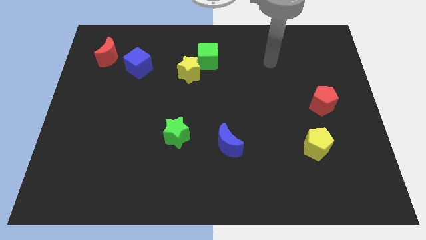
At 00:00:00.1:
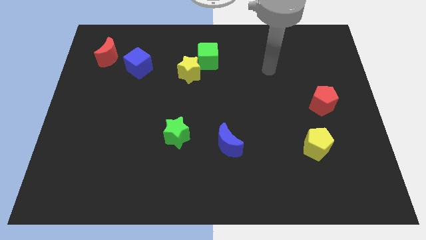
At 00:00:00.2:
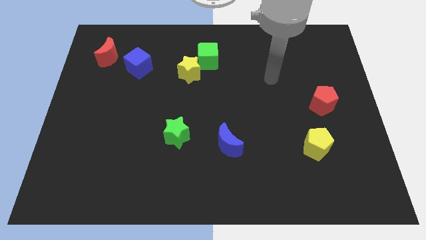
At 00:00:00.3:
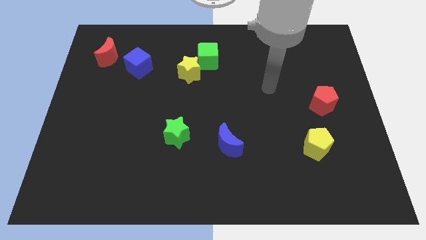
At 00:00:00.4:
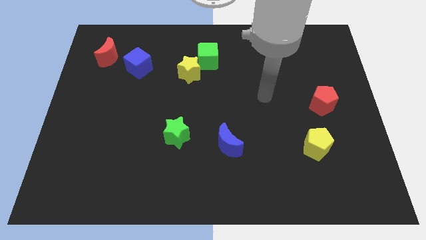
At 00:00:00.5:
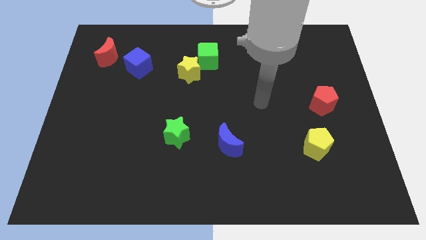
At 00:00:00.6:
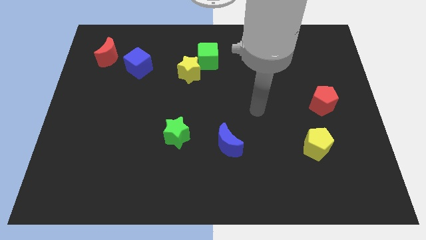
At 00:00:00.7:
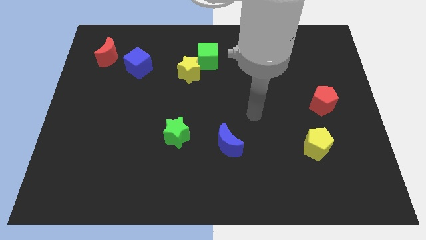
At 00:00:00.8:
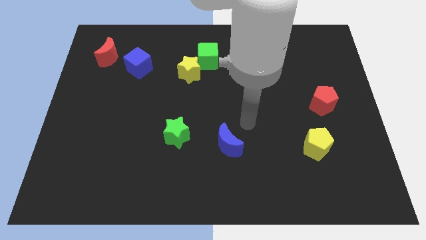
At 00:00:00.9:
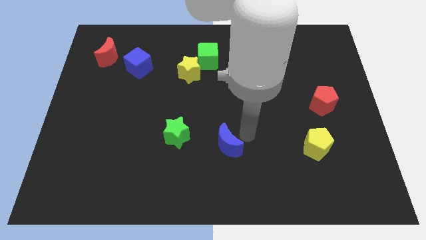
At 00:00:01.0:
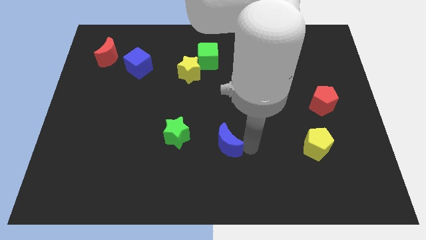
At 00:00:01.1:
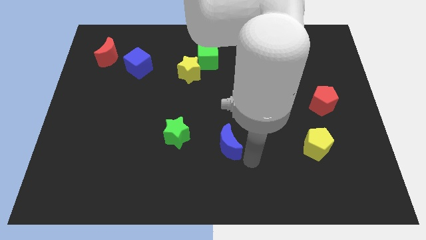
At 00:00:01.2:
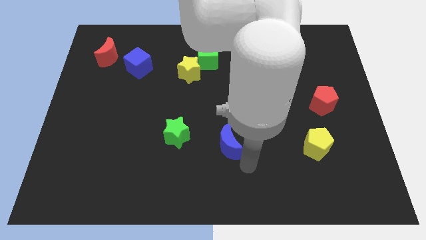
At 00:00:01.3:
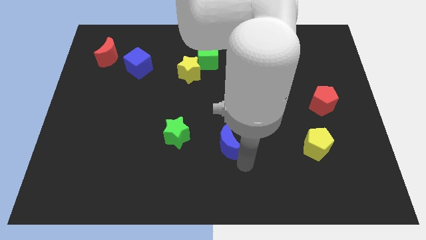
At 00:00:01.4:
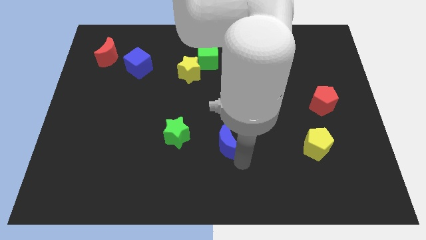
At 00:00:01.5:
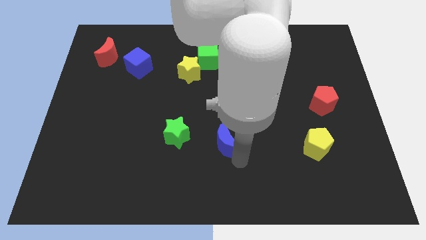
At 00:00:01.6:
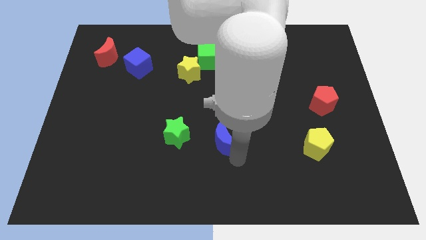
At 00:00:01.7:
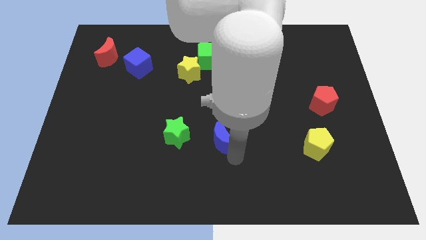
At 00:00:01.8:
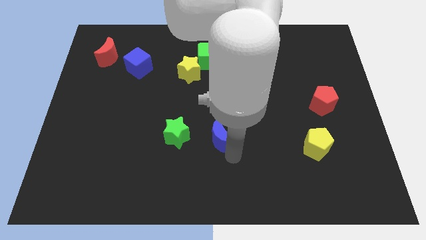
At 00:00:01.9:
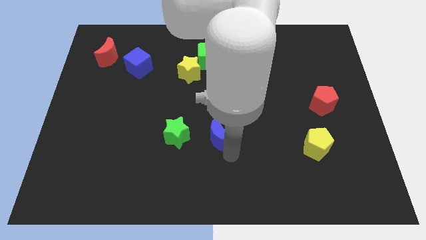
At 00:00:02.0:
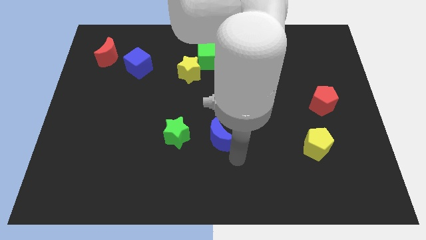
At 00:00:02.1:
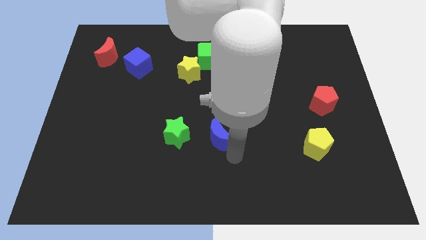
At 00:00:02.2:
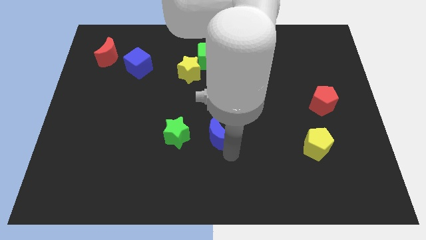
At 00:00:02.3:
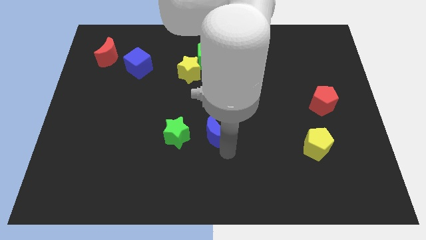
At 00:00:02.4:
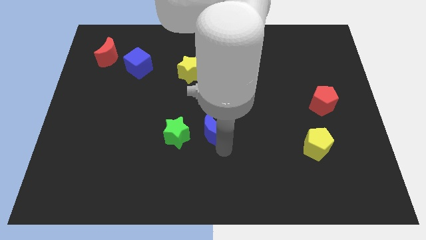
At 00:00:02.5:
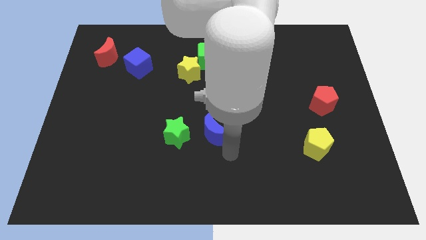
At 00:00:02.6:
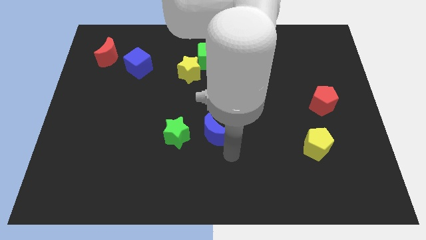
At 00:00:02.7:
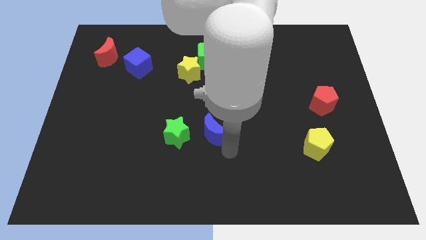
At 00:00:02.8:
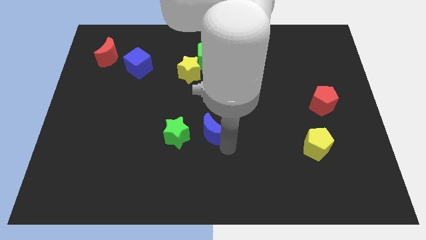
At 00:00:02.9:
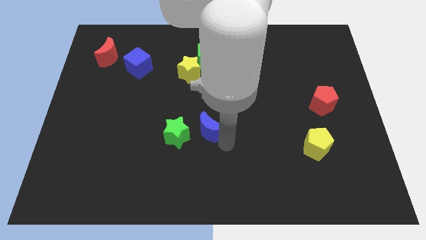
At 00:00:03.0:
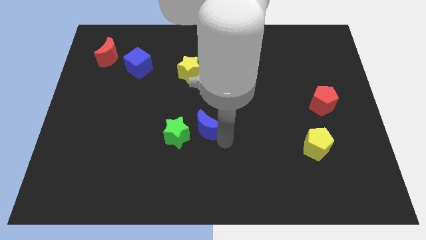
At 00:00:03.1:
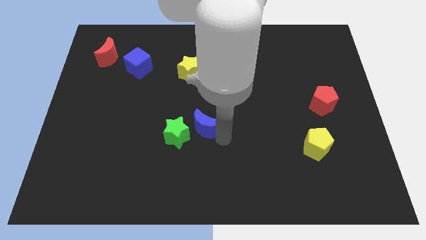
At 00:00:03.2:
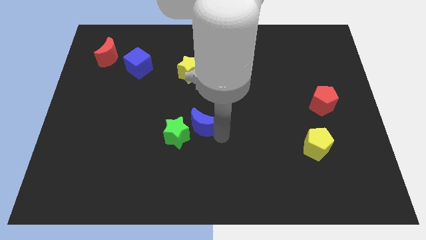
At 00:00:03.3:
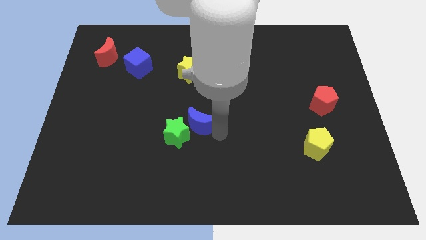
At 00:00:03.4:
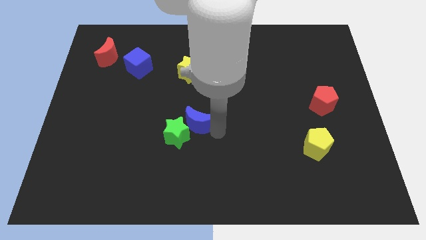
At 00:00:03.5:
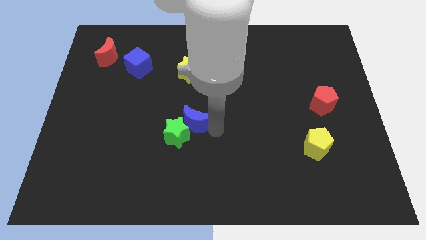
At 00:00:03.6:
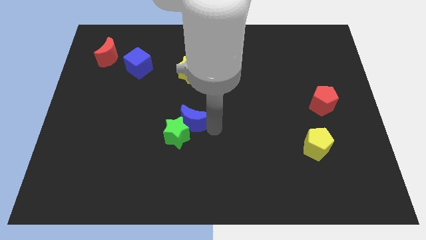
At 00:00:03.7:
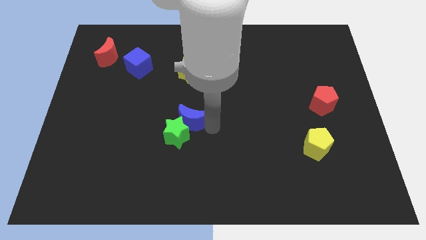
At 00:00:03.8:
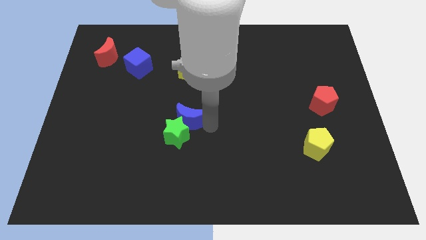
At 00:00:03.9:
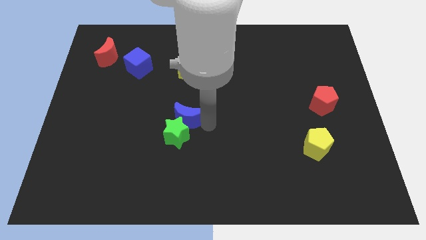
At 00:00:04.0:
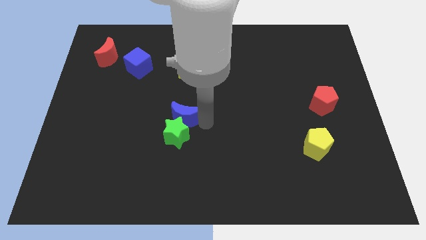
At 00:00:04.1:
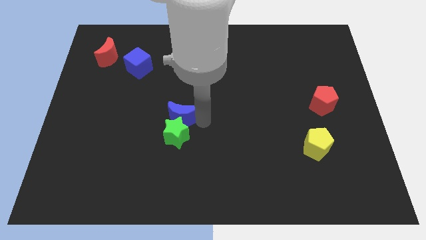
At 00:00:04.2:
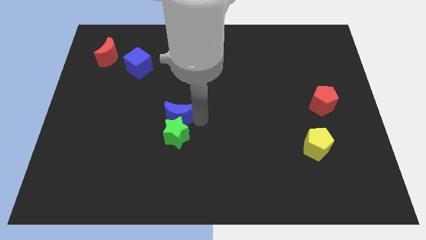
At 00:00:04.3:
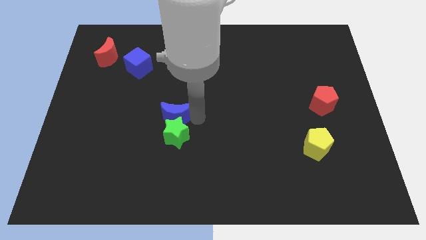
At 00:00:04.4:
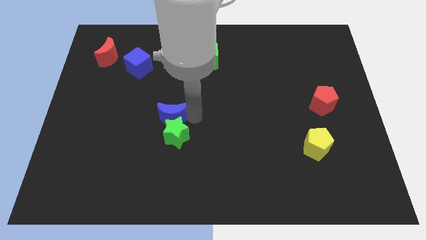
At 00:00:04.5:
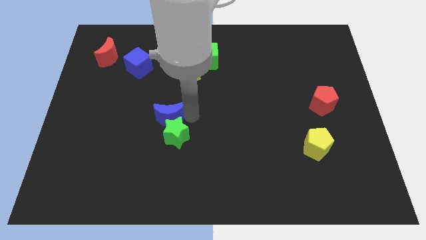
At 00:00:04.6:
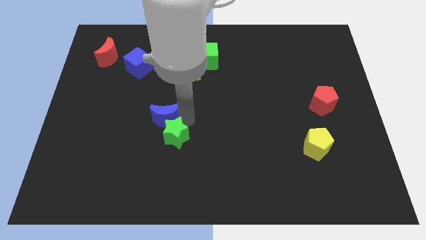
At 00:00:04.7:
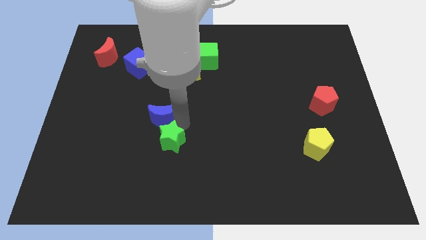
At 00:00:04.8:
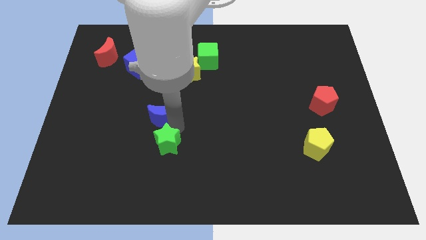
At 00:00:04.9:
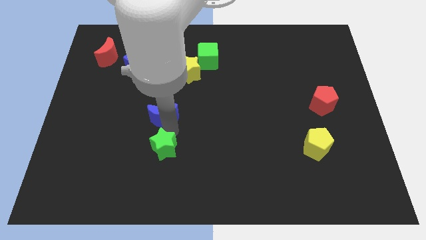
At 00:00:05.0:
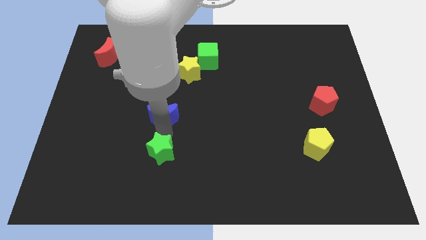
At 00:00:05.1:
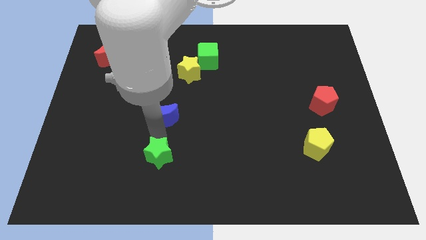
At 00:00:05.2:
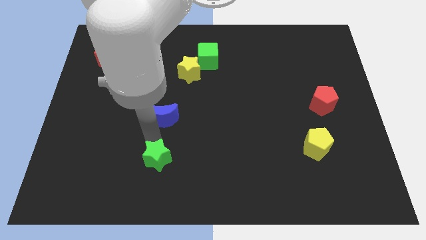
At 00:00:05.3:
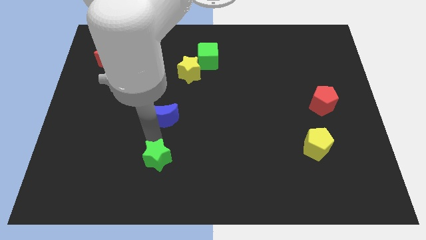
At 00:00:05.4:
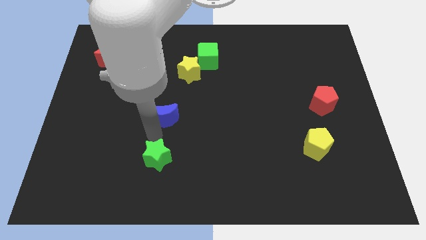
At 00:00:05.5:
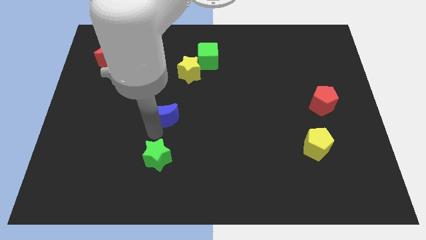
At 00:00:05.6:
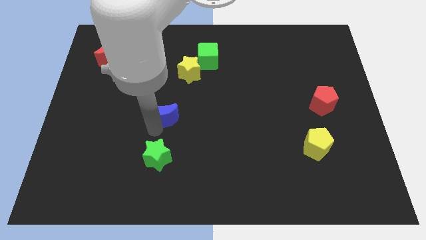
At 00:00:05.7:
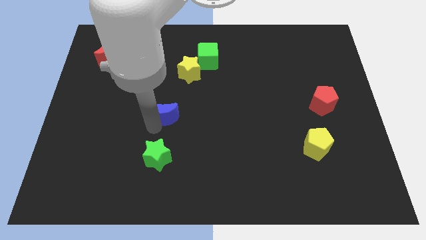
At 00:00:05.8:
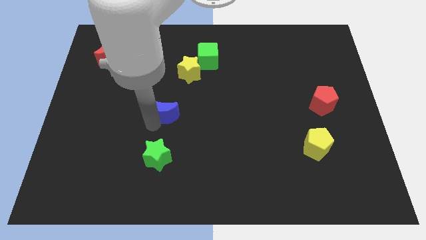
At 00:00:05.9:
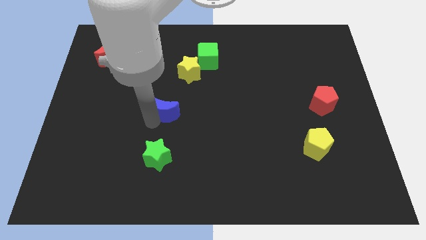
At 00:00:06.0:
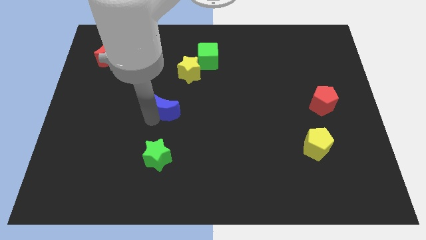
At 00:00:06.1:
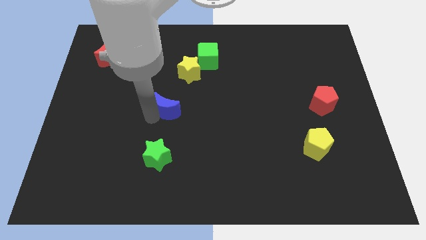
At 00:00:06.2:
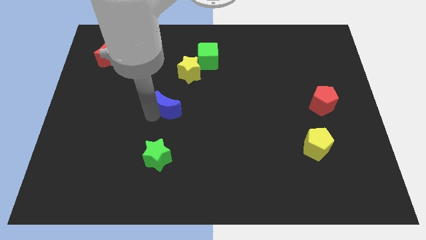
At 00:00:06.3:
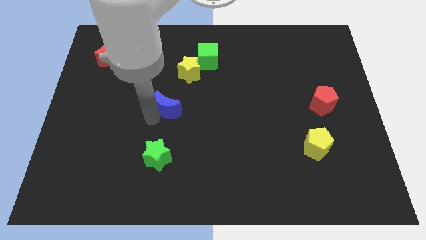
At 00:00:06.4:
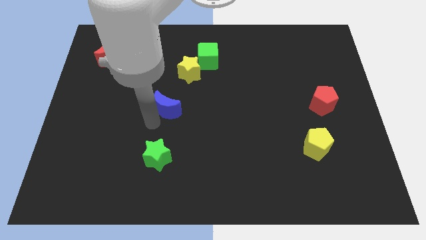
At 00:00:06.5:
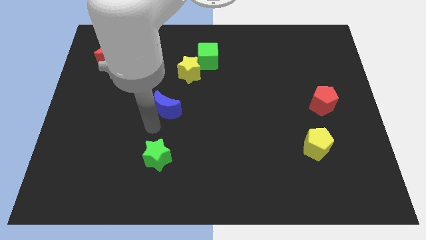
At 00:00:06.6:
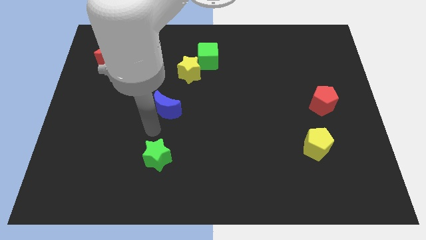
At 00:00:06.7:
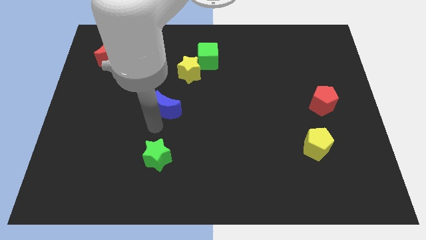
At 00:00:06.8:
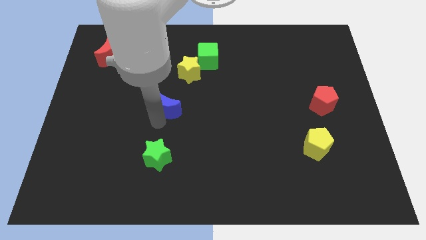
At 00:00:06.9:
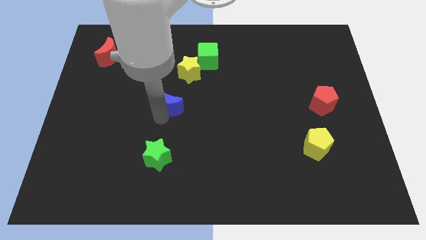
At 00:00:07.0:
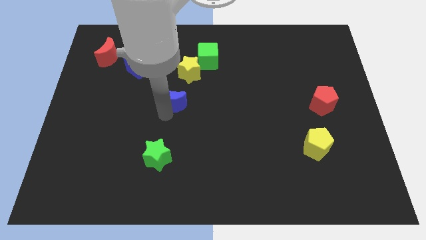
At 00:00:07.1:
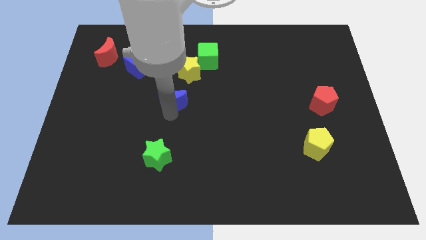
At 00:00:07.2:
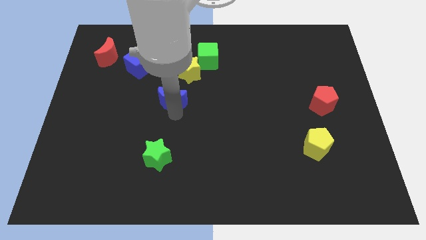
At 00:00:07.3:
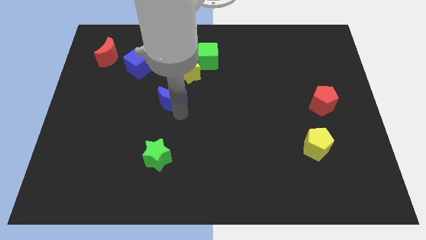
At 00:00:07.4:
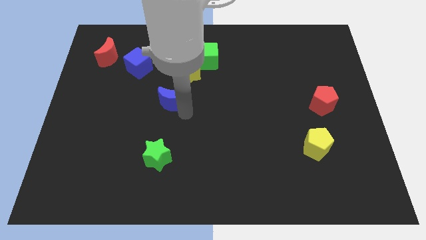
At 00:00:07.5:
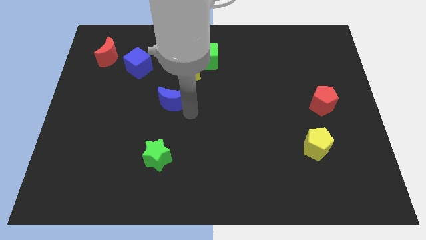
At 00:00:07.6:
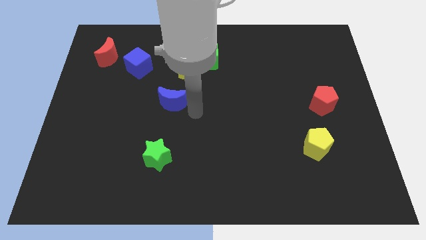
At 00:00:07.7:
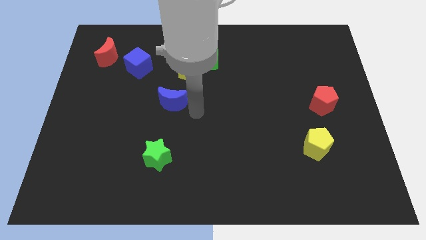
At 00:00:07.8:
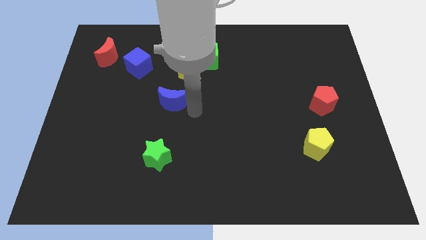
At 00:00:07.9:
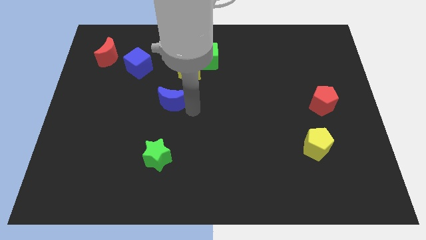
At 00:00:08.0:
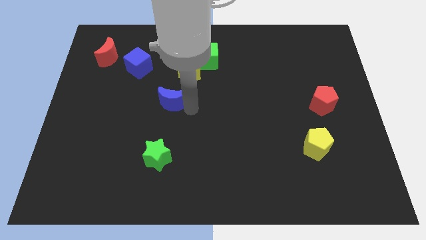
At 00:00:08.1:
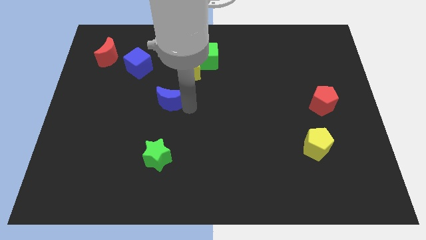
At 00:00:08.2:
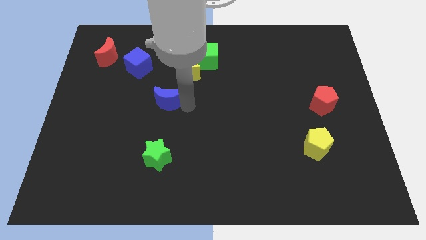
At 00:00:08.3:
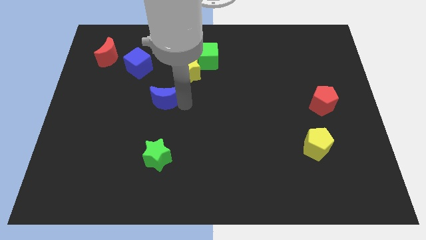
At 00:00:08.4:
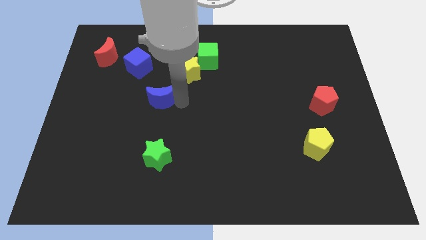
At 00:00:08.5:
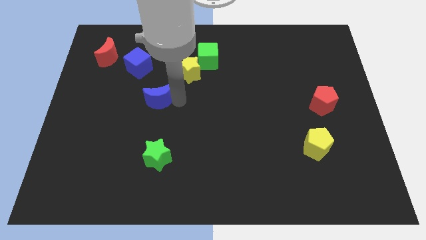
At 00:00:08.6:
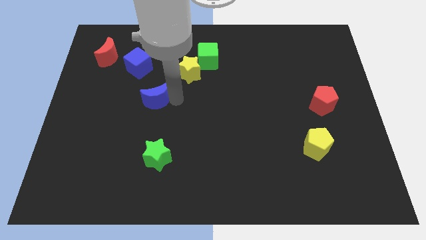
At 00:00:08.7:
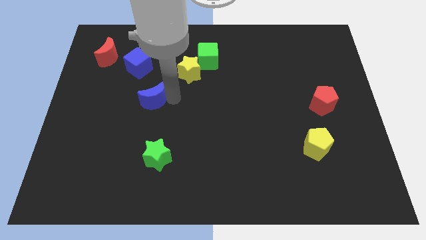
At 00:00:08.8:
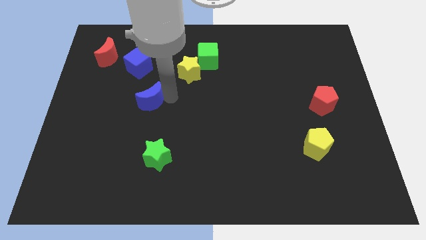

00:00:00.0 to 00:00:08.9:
put the blue moon below the blue cube
